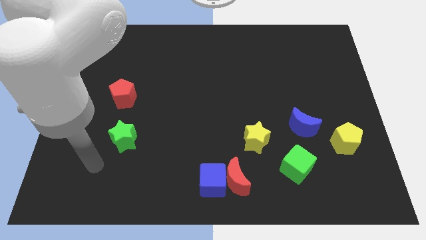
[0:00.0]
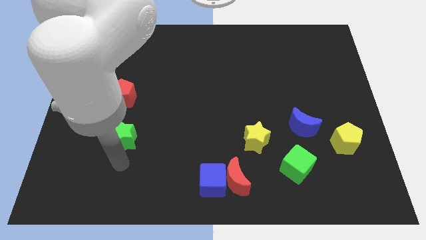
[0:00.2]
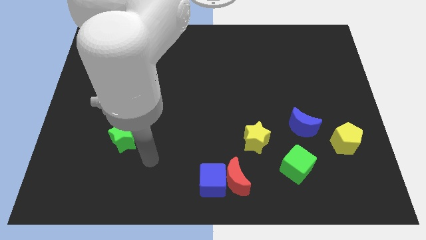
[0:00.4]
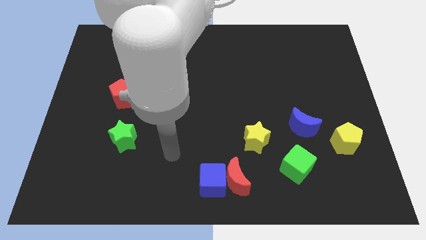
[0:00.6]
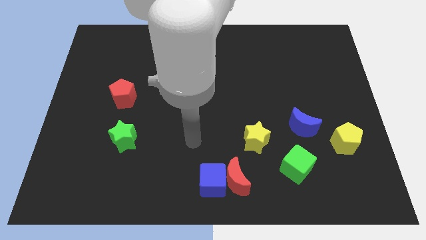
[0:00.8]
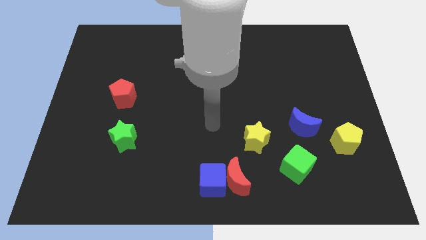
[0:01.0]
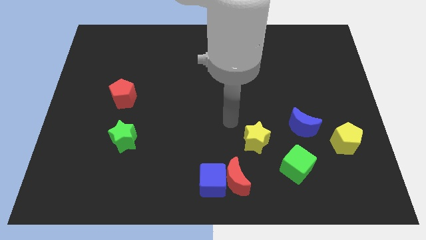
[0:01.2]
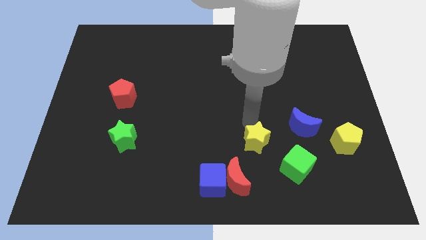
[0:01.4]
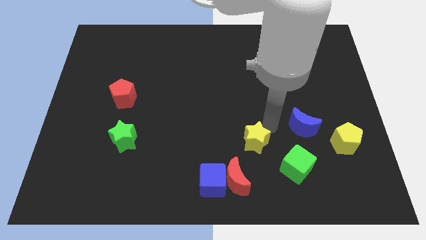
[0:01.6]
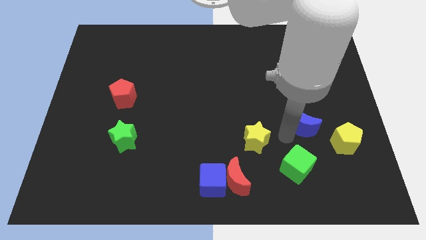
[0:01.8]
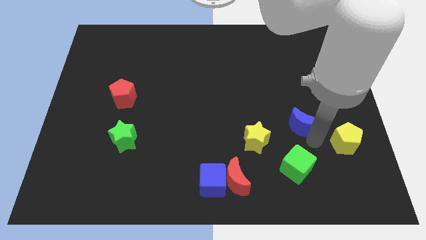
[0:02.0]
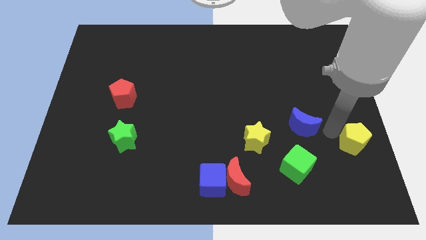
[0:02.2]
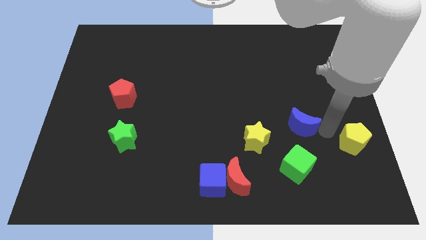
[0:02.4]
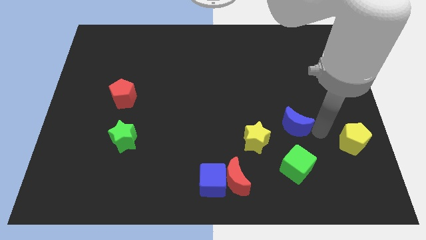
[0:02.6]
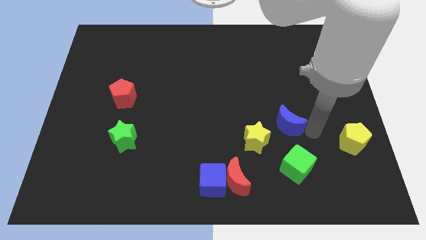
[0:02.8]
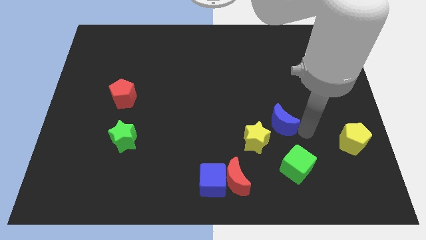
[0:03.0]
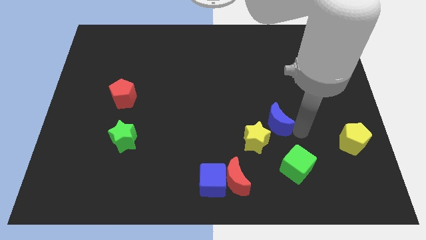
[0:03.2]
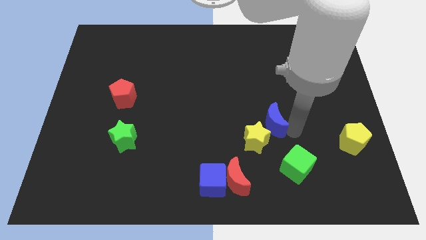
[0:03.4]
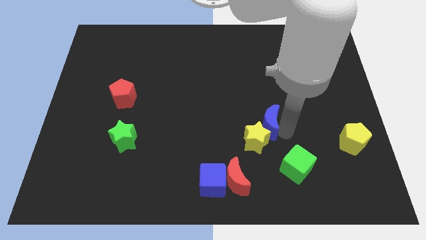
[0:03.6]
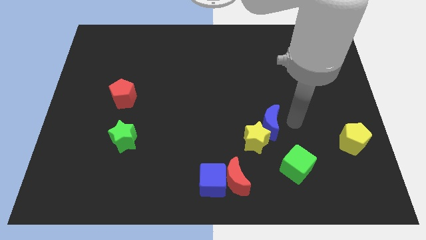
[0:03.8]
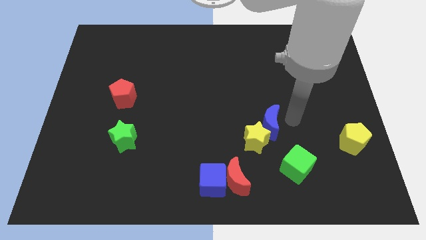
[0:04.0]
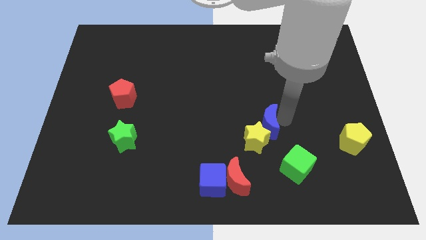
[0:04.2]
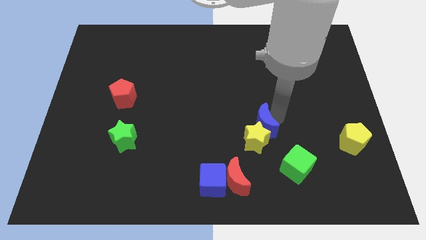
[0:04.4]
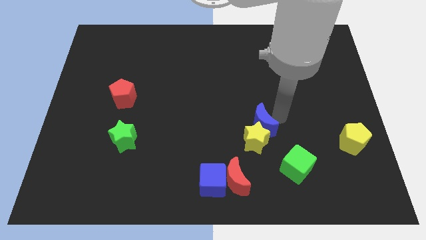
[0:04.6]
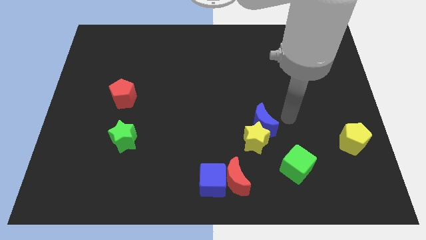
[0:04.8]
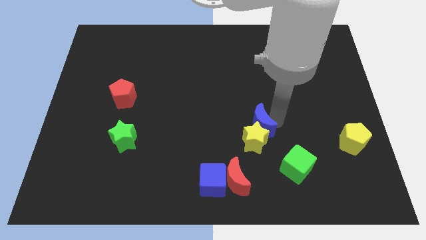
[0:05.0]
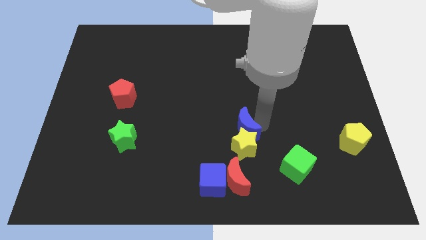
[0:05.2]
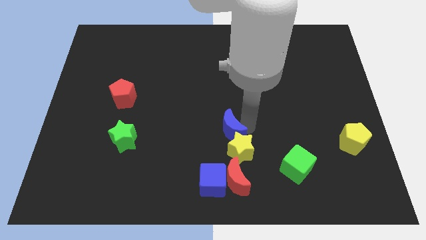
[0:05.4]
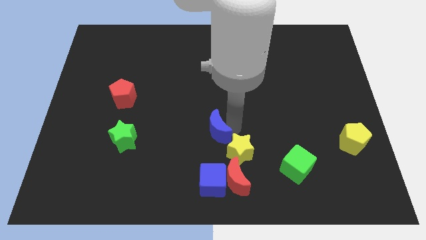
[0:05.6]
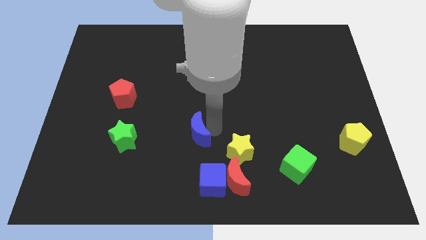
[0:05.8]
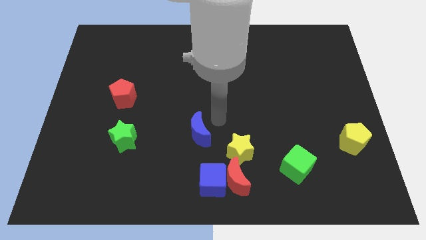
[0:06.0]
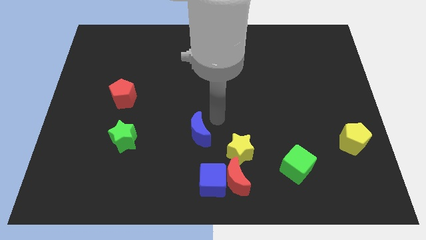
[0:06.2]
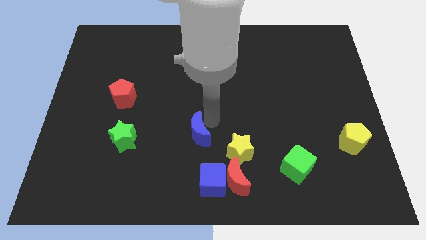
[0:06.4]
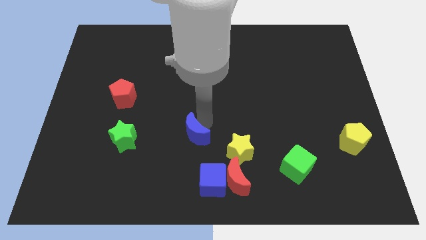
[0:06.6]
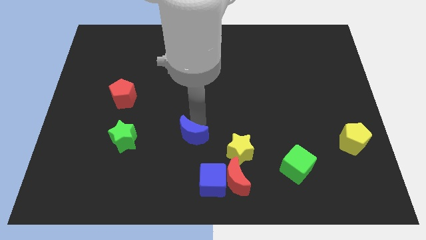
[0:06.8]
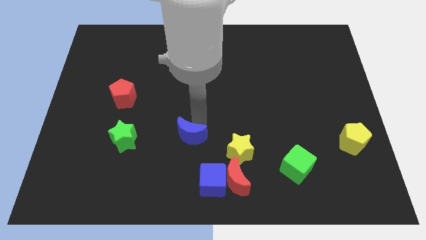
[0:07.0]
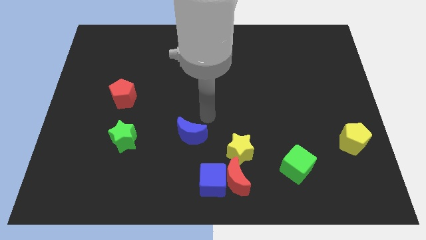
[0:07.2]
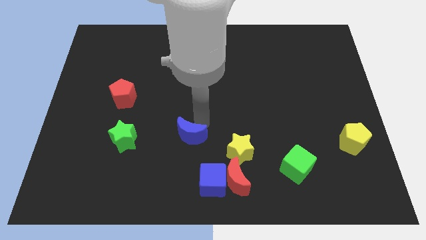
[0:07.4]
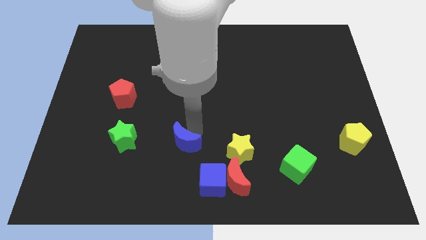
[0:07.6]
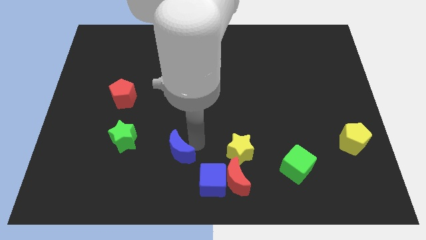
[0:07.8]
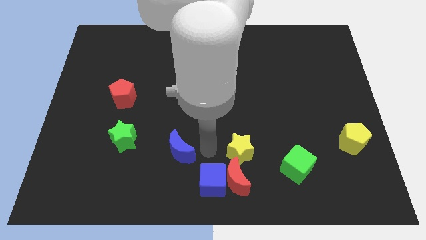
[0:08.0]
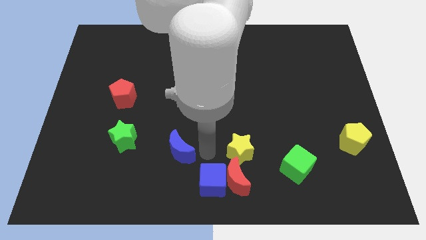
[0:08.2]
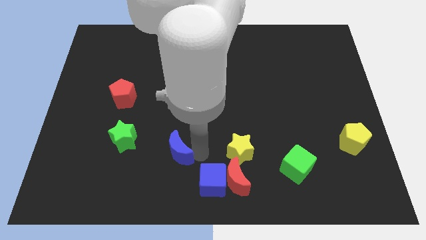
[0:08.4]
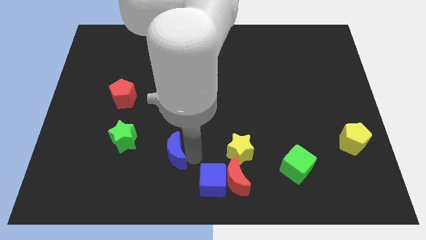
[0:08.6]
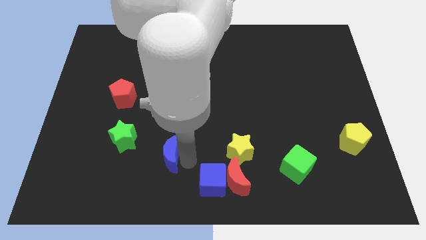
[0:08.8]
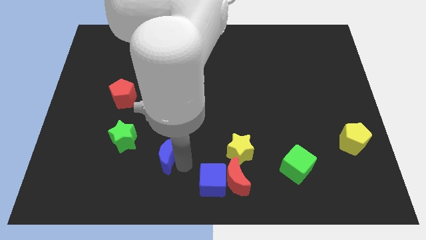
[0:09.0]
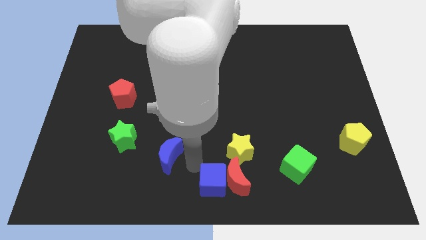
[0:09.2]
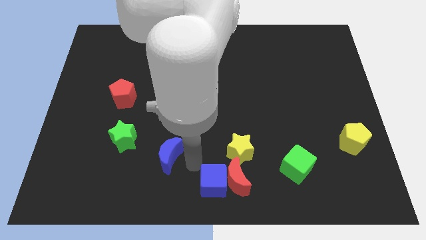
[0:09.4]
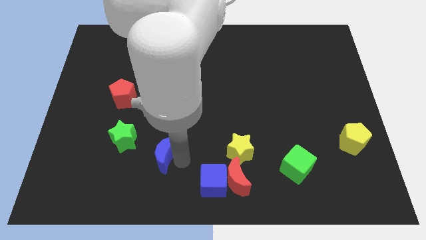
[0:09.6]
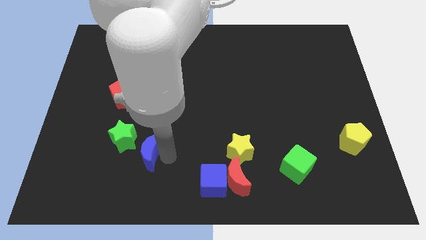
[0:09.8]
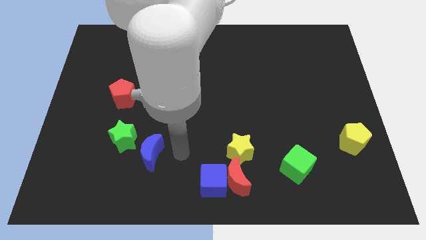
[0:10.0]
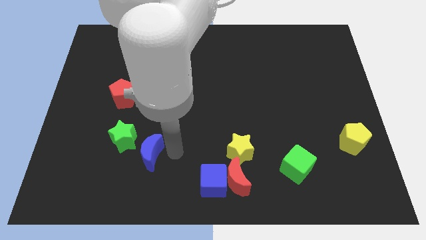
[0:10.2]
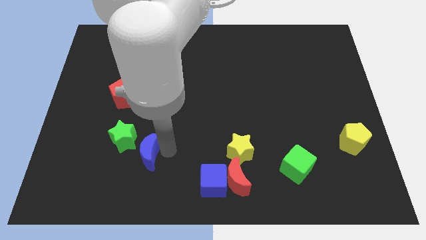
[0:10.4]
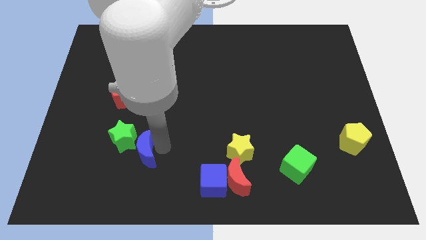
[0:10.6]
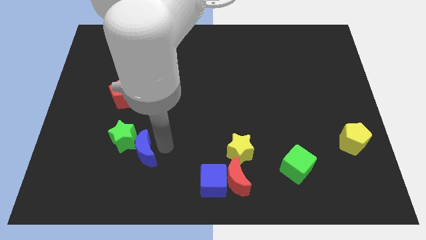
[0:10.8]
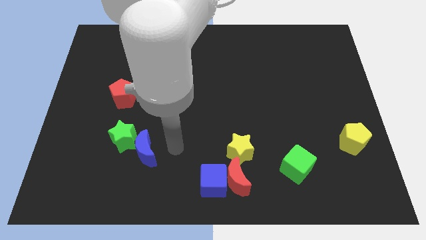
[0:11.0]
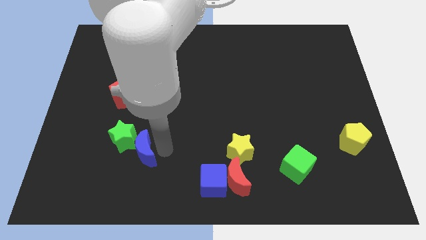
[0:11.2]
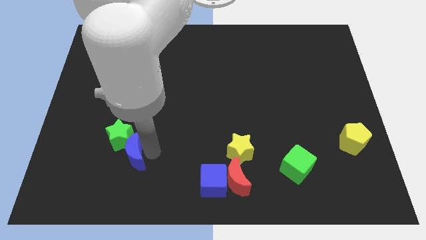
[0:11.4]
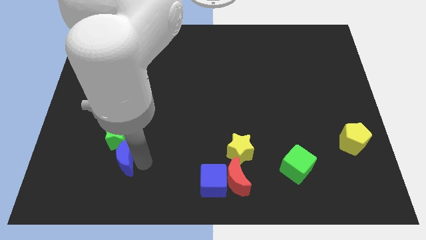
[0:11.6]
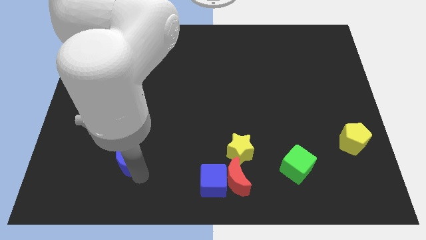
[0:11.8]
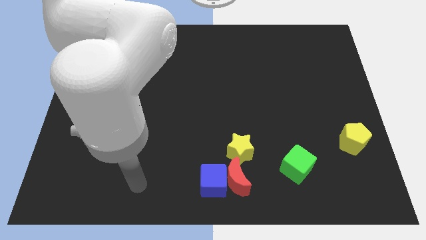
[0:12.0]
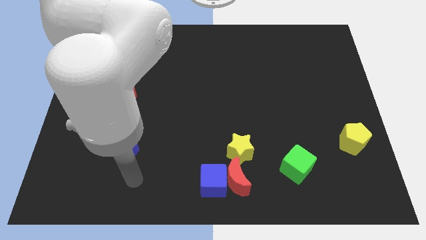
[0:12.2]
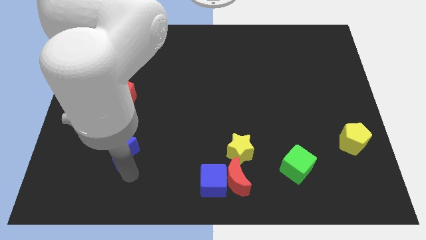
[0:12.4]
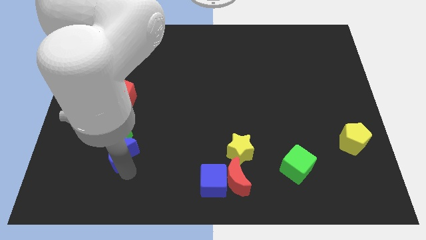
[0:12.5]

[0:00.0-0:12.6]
put the blue moon to the bottom side of the red pentagon
